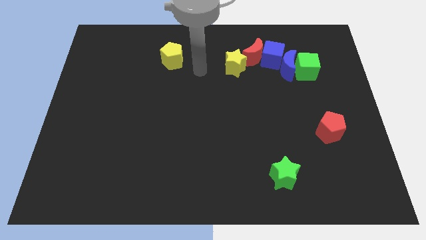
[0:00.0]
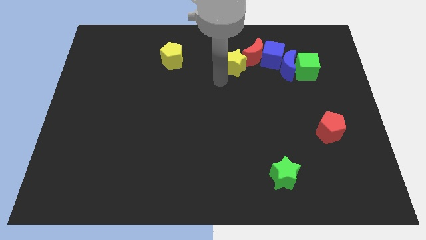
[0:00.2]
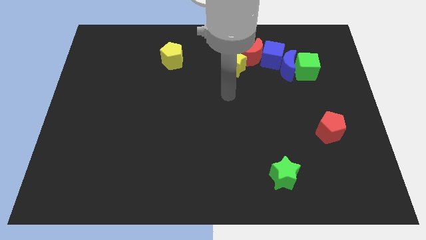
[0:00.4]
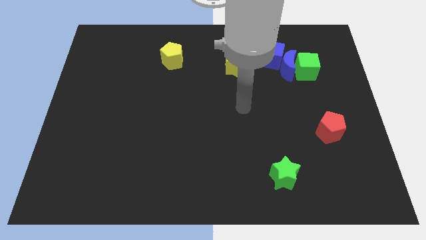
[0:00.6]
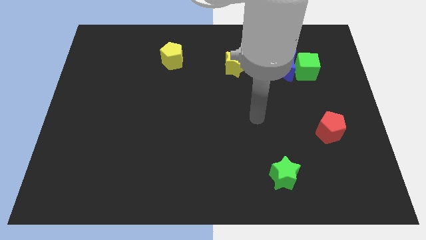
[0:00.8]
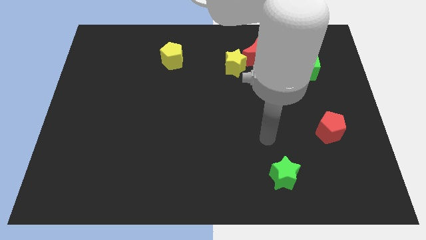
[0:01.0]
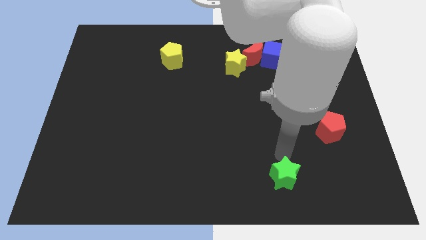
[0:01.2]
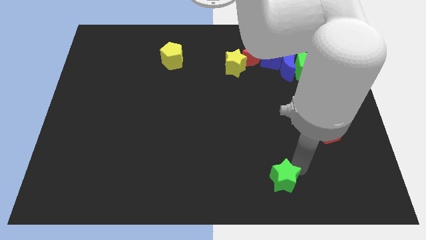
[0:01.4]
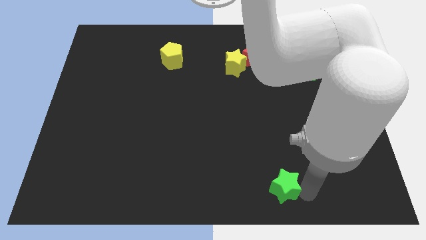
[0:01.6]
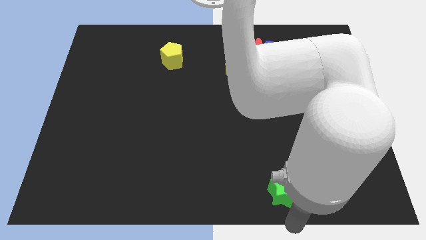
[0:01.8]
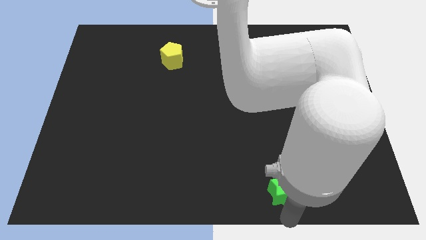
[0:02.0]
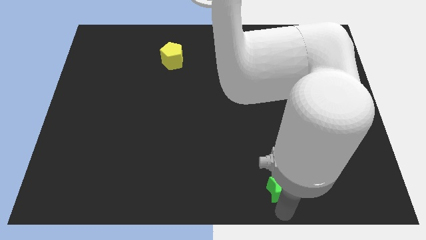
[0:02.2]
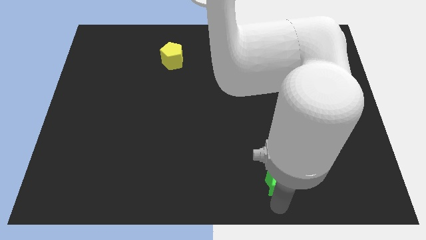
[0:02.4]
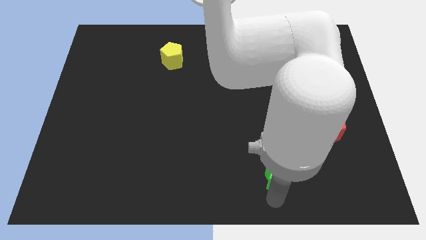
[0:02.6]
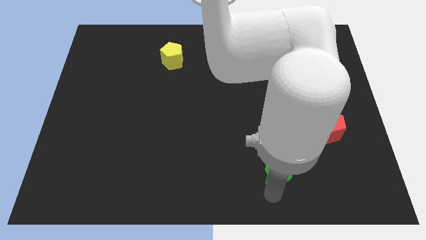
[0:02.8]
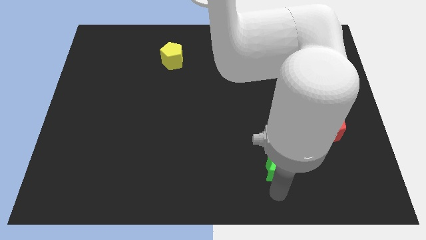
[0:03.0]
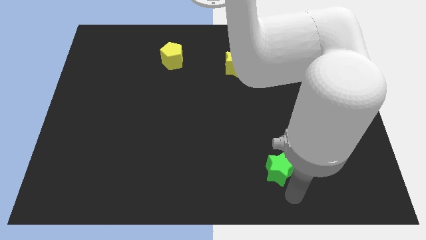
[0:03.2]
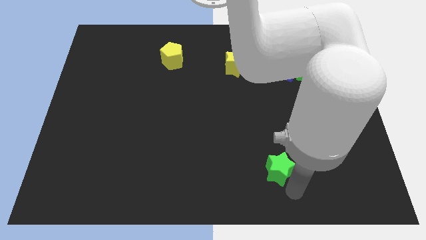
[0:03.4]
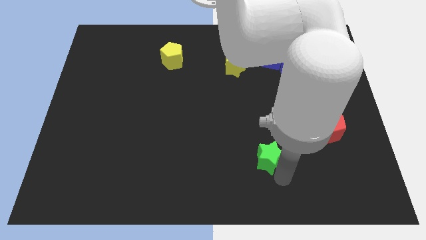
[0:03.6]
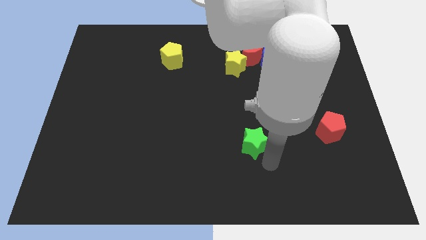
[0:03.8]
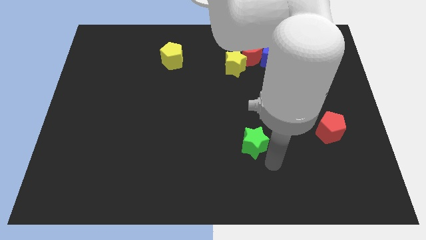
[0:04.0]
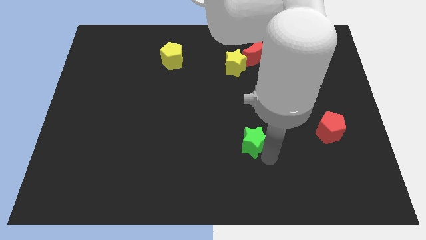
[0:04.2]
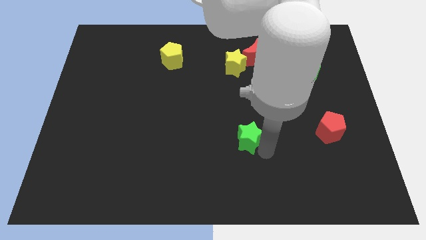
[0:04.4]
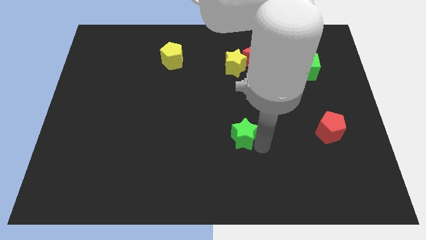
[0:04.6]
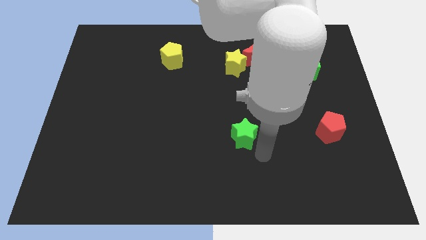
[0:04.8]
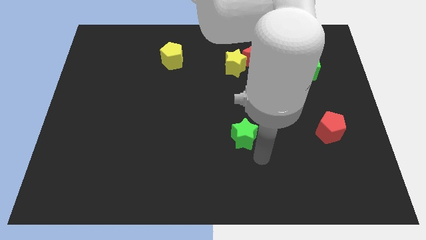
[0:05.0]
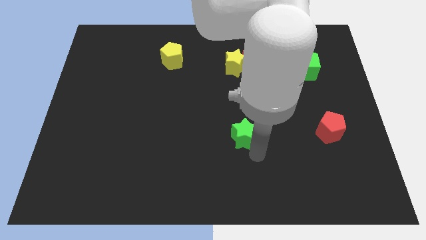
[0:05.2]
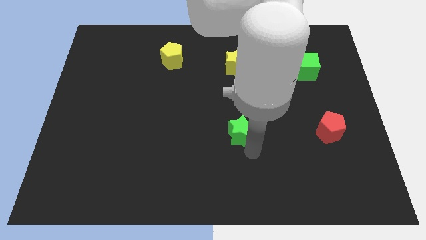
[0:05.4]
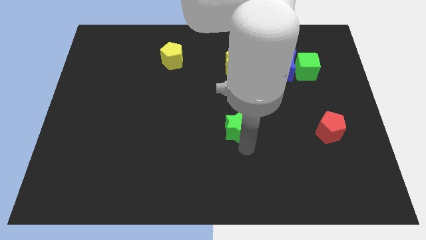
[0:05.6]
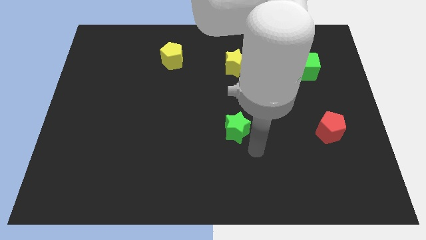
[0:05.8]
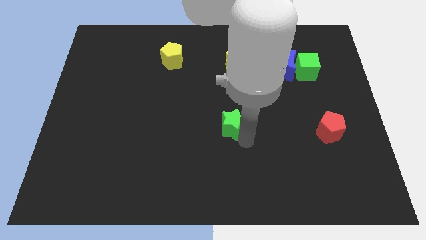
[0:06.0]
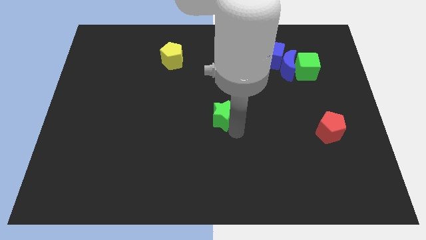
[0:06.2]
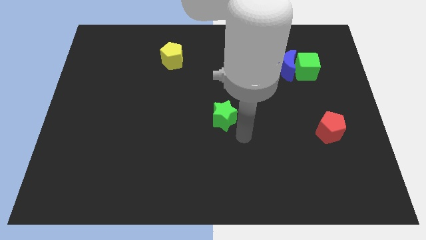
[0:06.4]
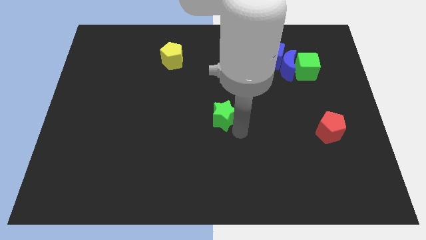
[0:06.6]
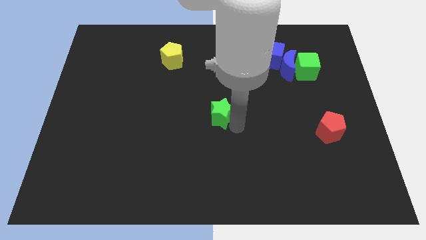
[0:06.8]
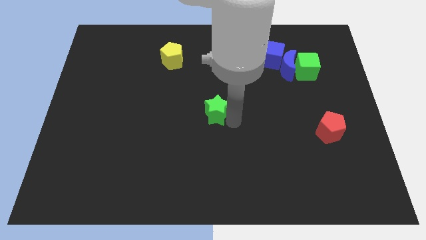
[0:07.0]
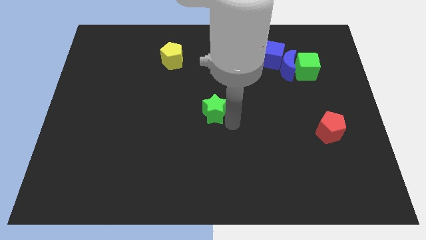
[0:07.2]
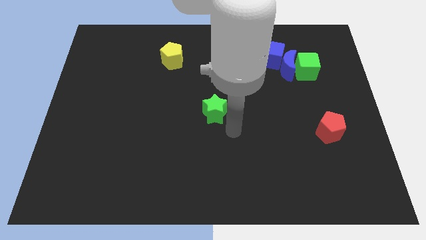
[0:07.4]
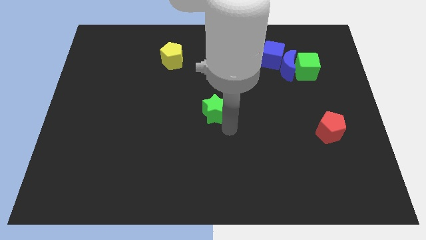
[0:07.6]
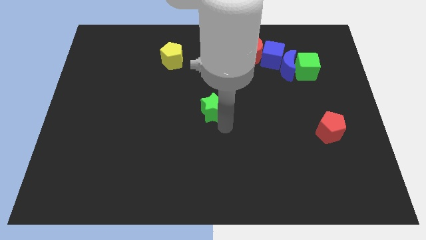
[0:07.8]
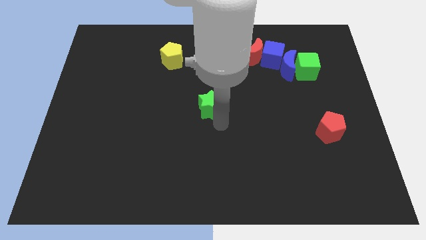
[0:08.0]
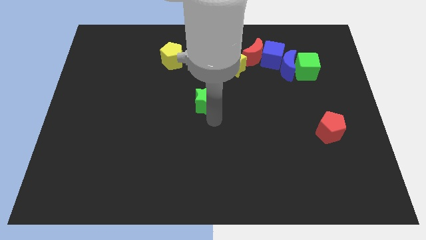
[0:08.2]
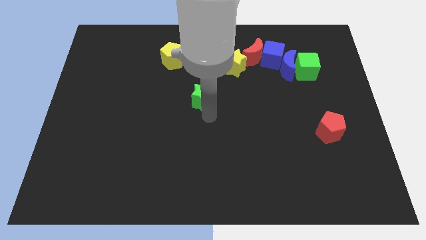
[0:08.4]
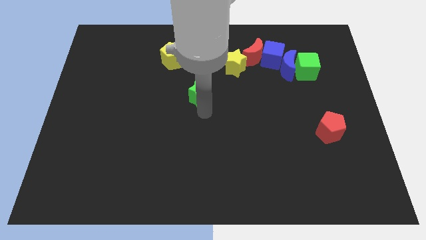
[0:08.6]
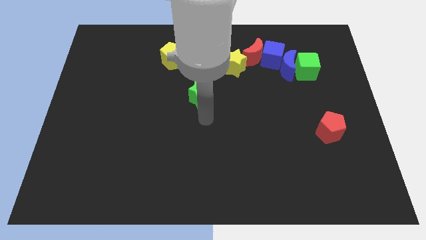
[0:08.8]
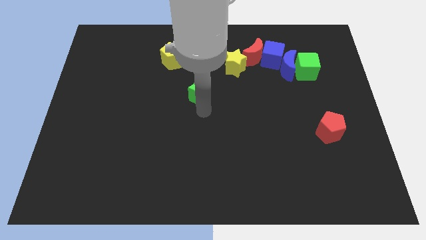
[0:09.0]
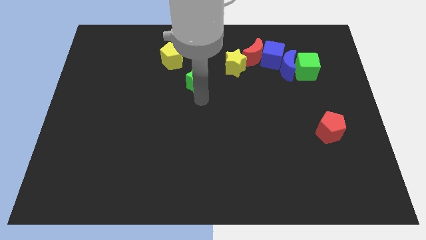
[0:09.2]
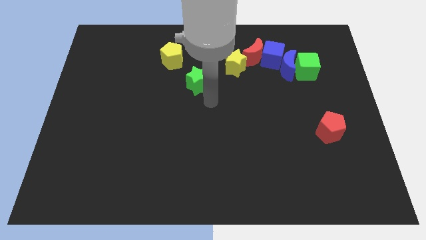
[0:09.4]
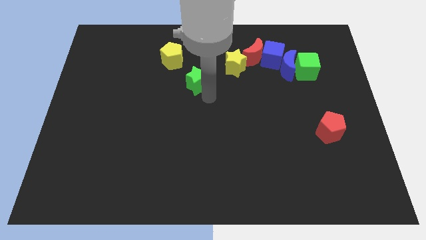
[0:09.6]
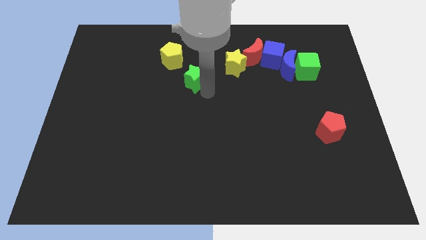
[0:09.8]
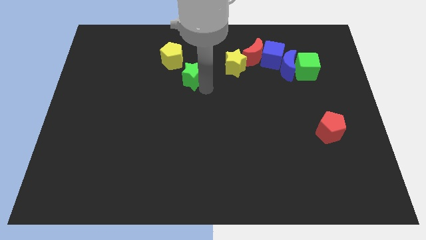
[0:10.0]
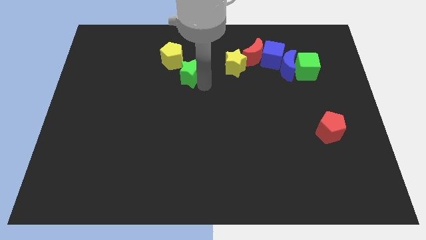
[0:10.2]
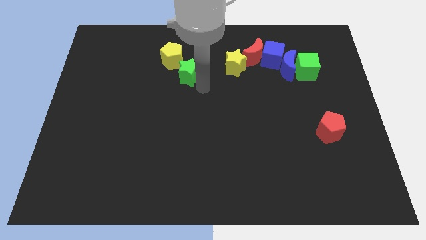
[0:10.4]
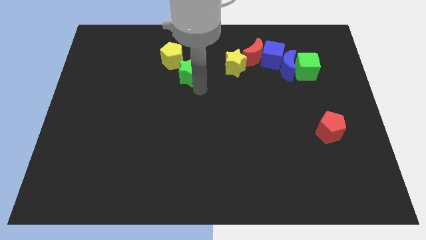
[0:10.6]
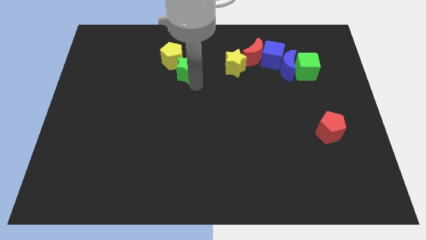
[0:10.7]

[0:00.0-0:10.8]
push the green star to the yellow pentagon

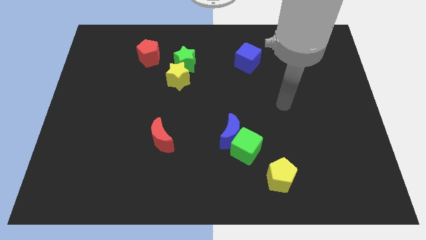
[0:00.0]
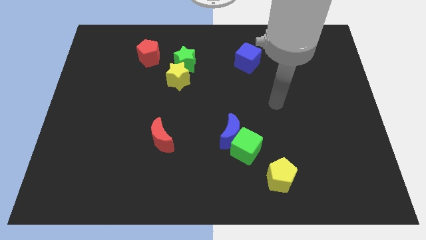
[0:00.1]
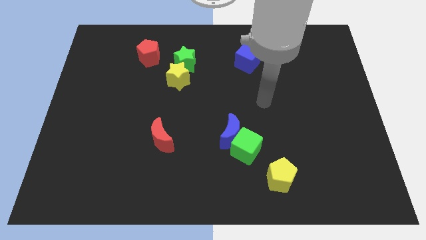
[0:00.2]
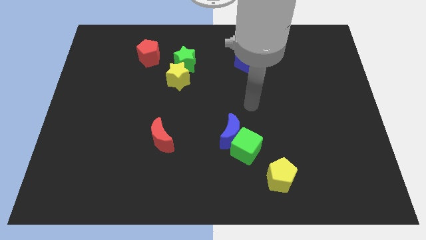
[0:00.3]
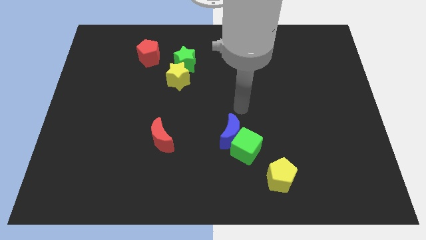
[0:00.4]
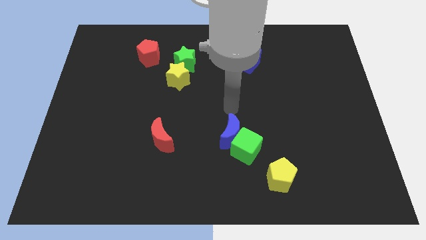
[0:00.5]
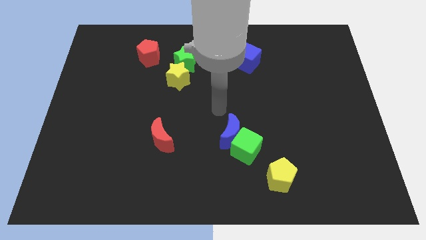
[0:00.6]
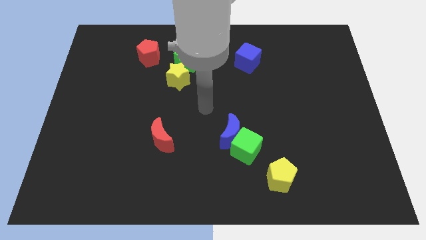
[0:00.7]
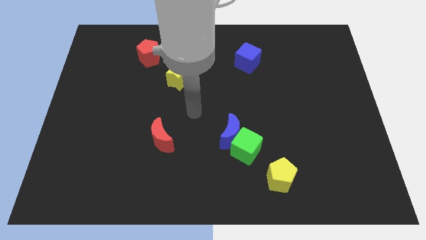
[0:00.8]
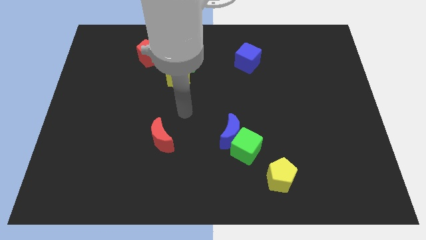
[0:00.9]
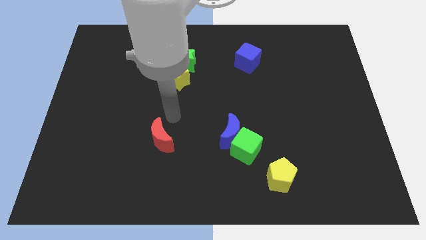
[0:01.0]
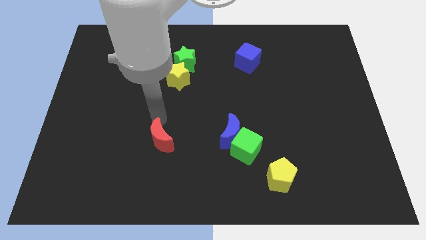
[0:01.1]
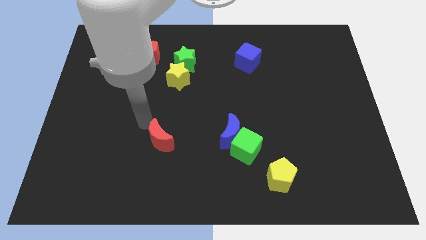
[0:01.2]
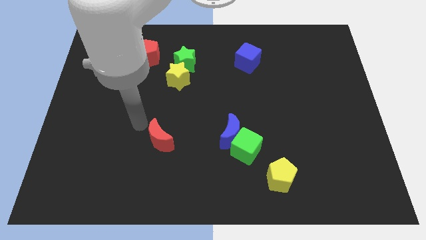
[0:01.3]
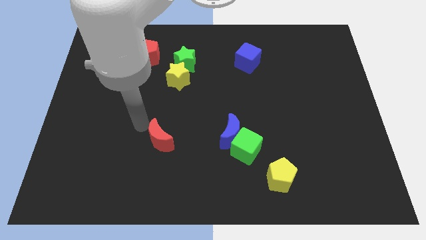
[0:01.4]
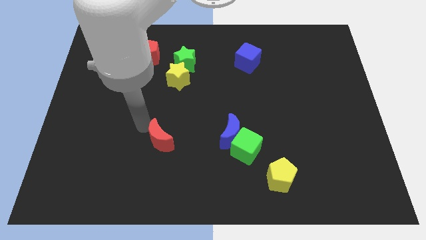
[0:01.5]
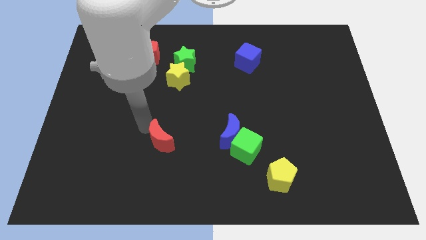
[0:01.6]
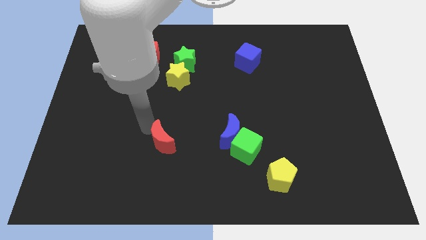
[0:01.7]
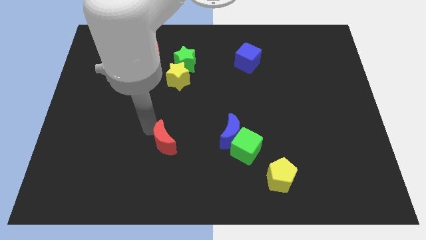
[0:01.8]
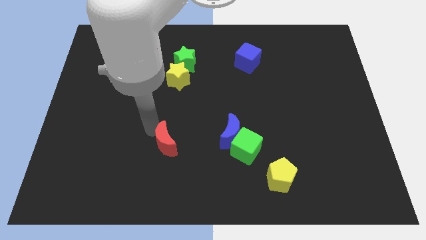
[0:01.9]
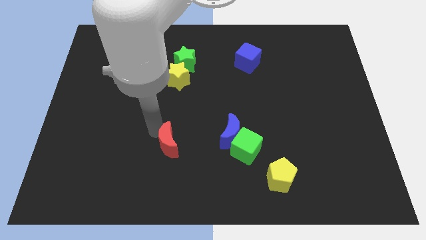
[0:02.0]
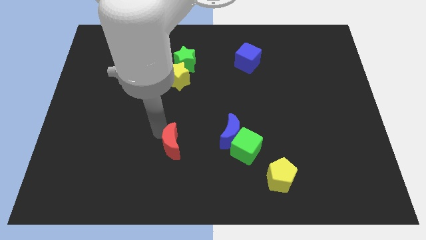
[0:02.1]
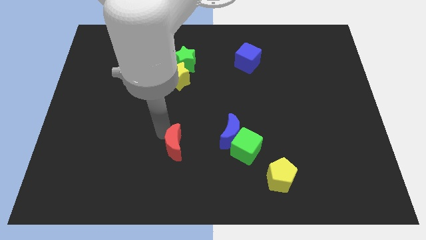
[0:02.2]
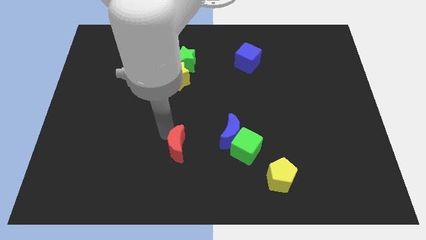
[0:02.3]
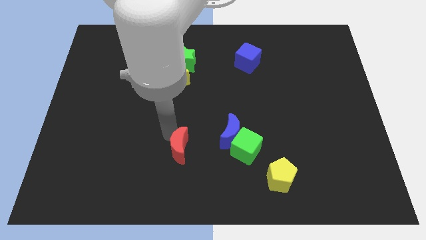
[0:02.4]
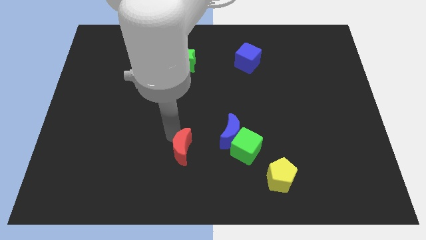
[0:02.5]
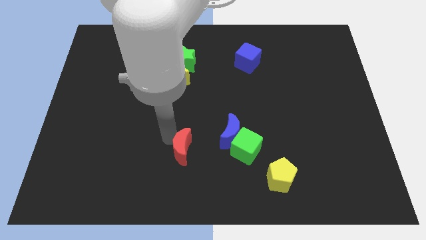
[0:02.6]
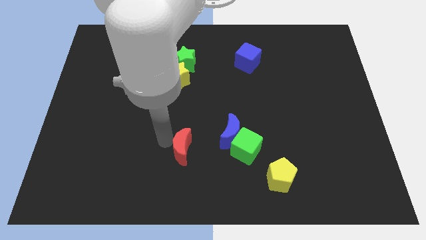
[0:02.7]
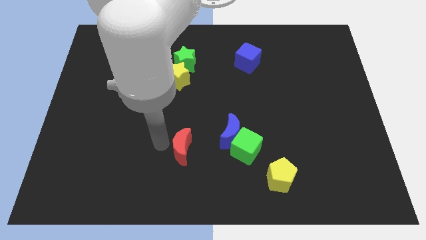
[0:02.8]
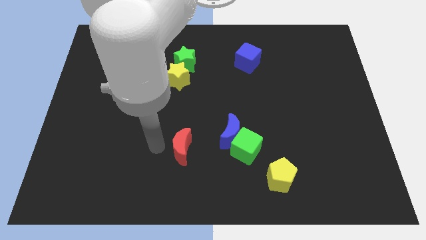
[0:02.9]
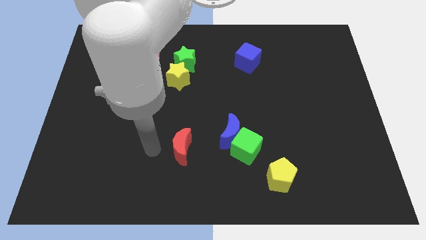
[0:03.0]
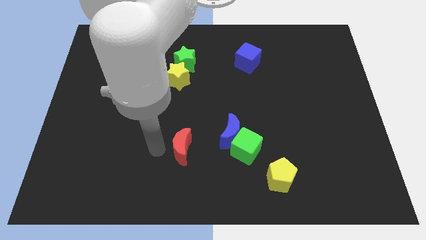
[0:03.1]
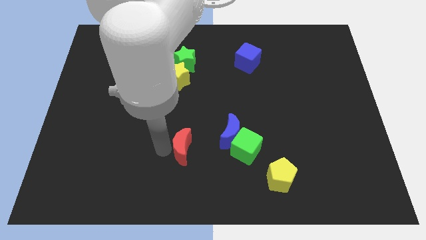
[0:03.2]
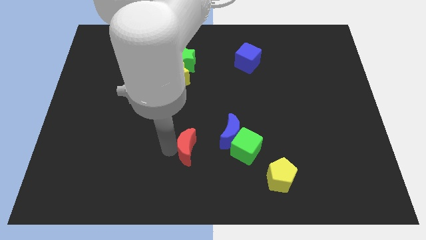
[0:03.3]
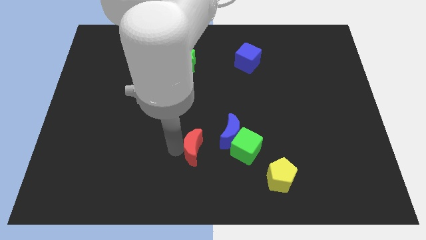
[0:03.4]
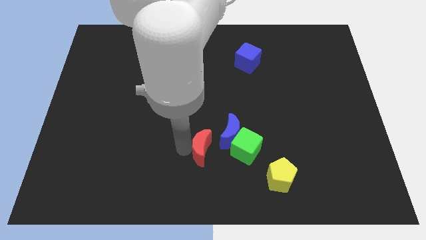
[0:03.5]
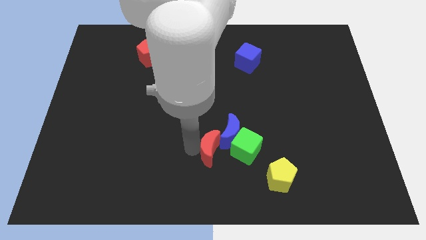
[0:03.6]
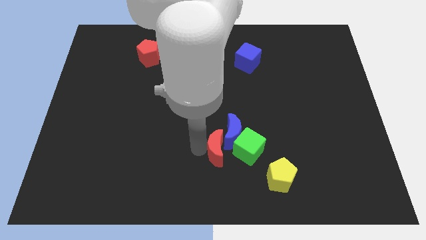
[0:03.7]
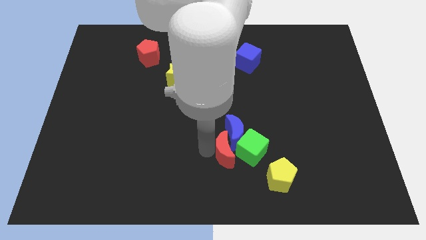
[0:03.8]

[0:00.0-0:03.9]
move the red moon to the green cube
